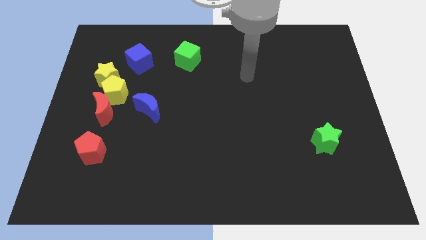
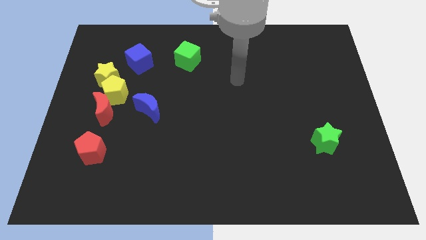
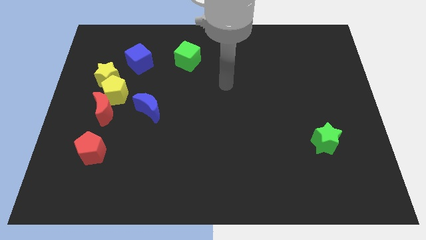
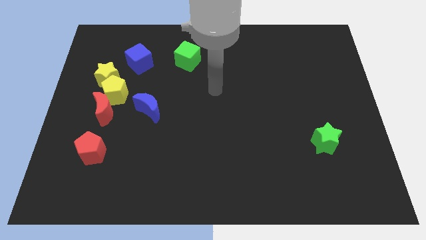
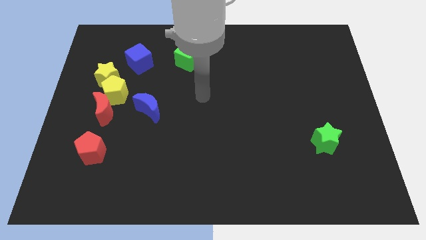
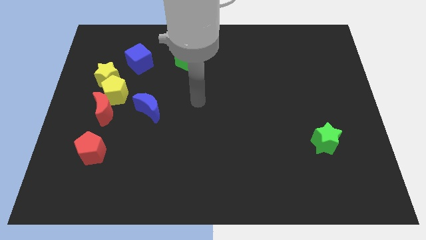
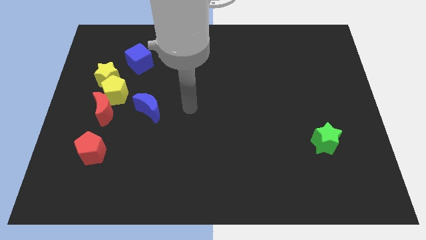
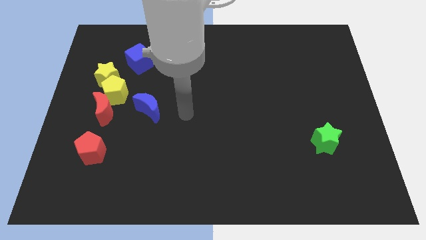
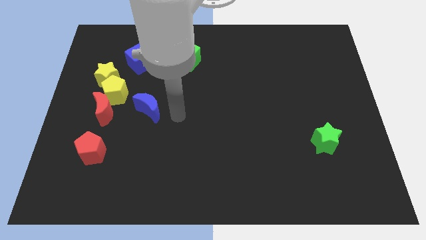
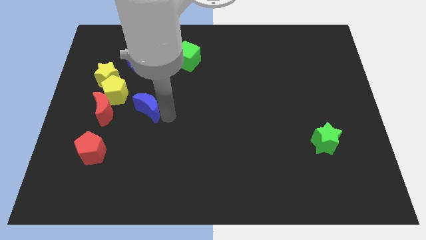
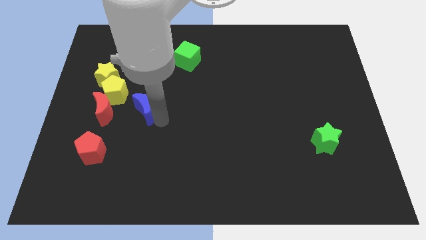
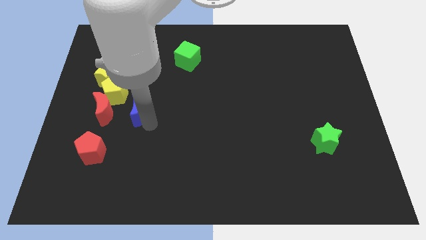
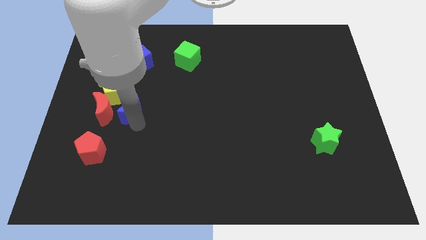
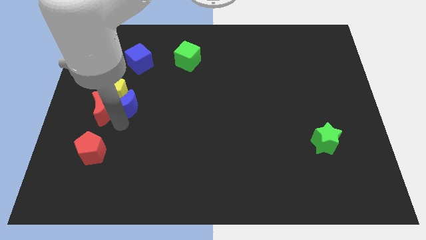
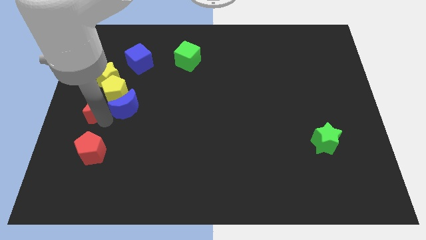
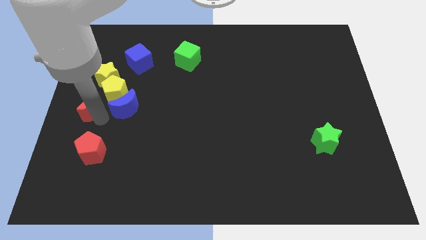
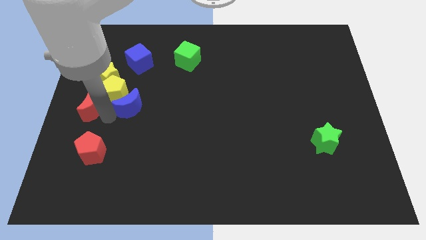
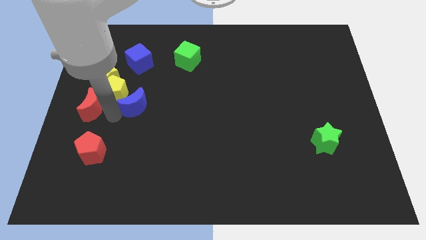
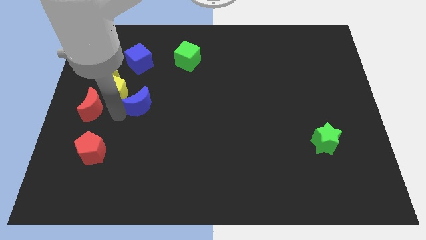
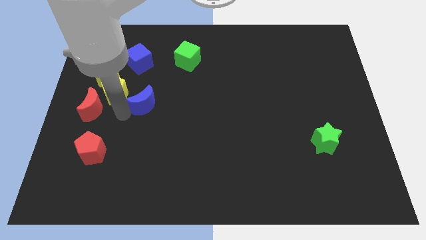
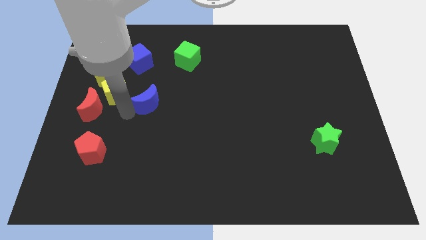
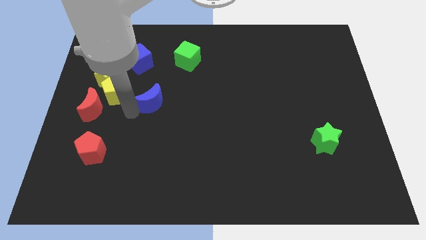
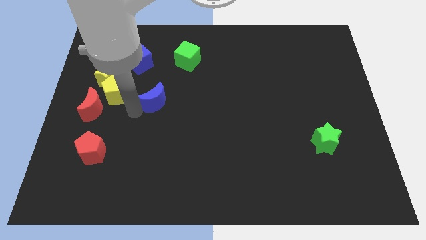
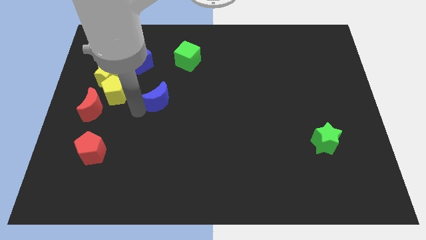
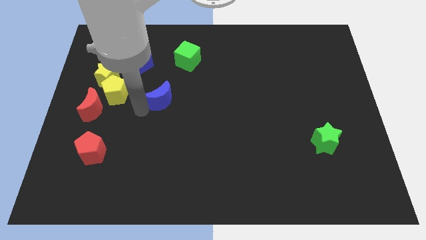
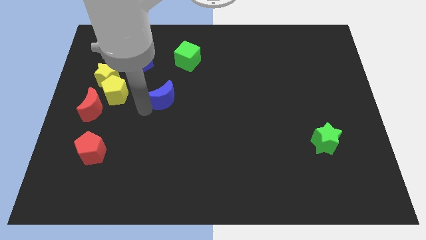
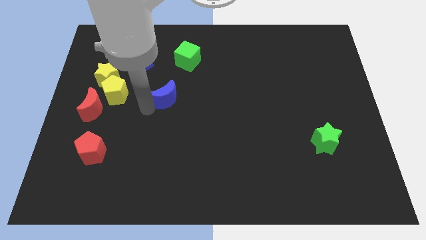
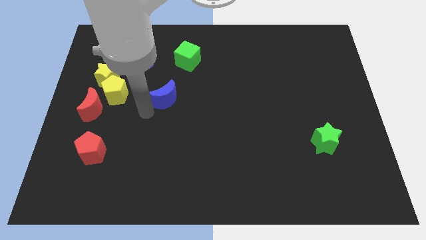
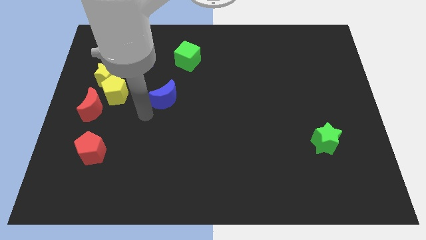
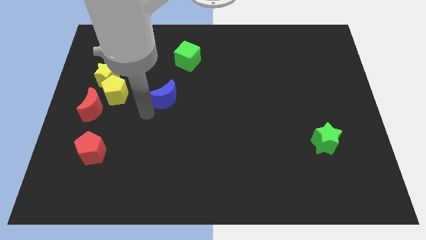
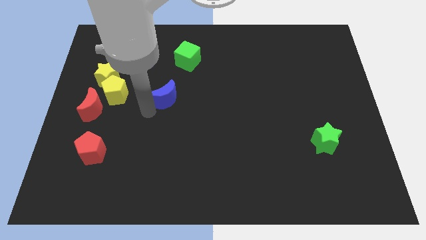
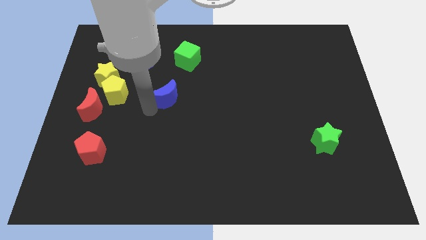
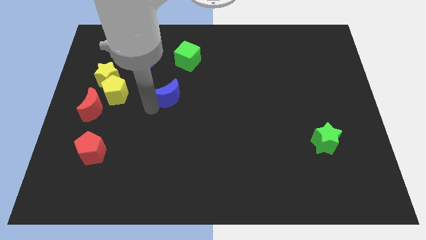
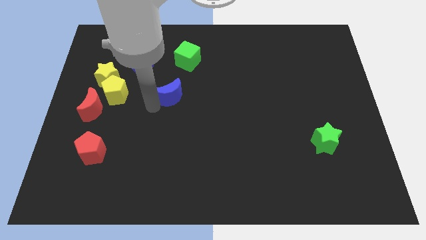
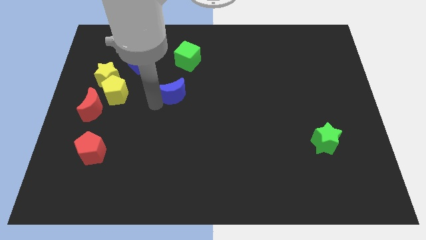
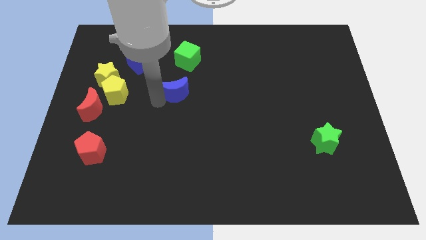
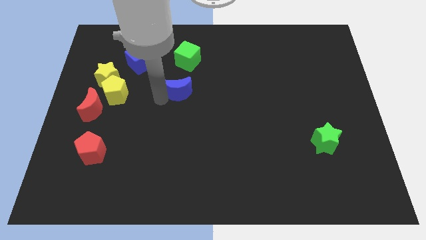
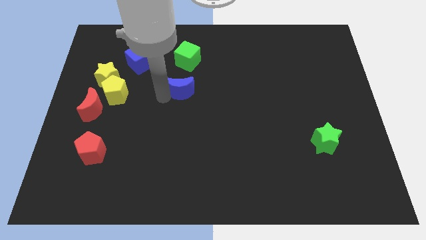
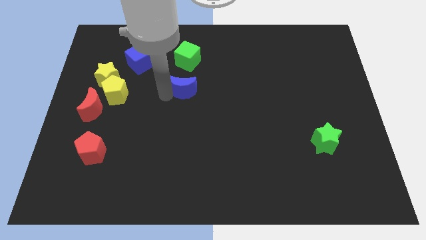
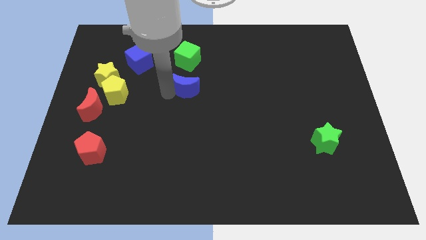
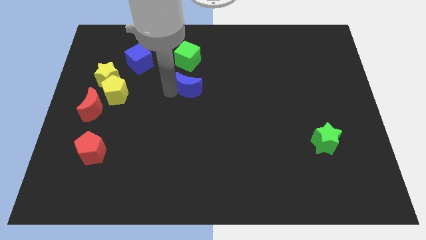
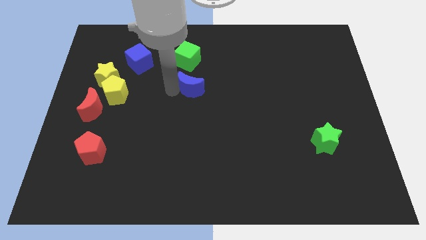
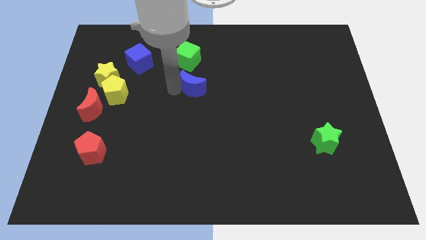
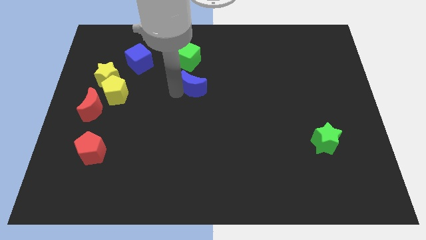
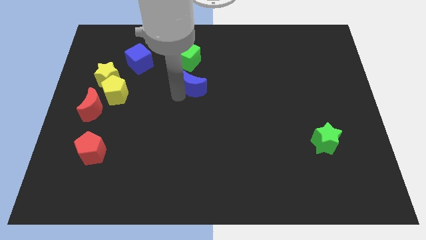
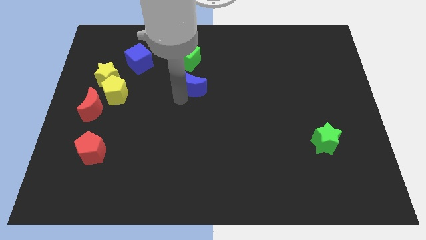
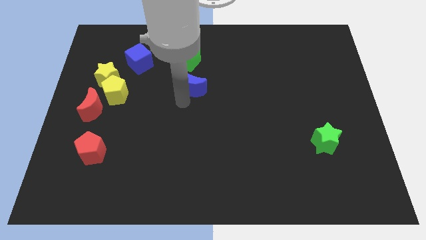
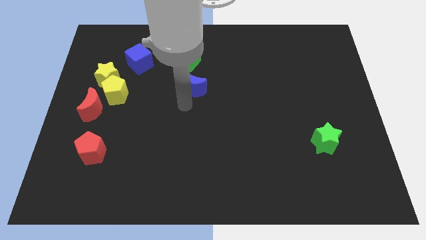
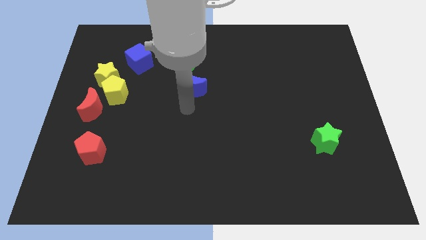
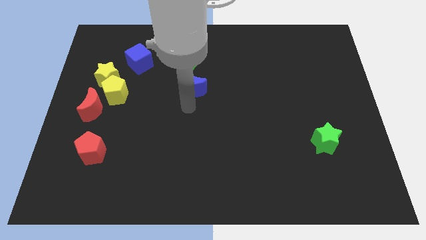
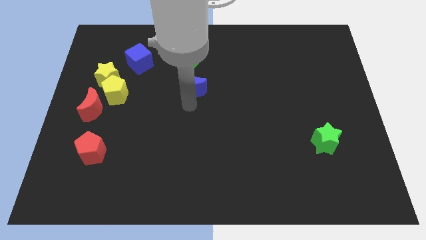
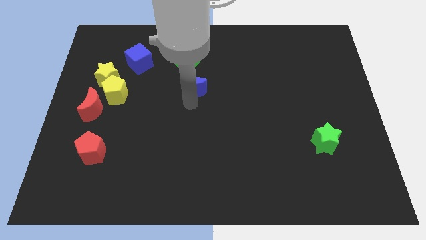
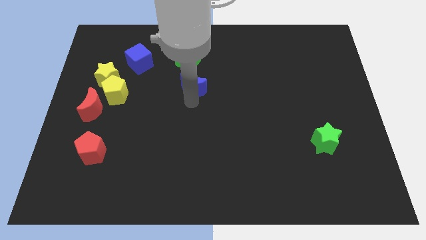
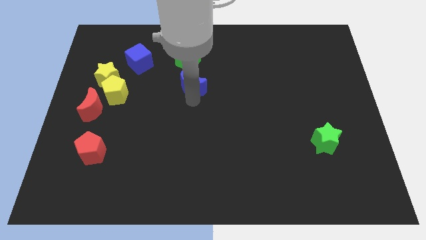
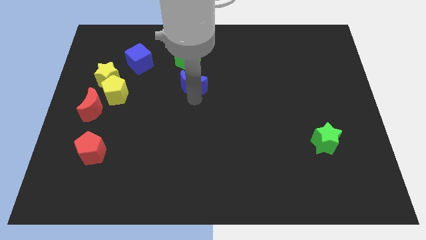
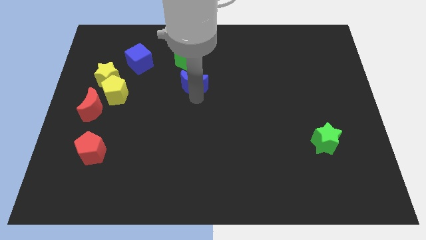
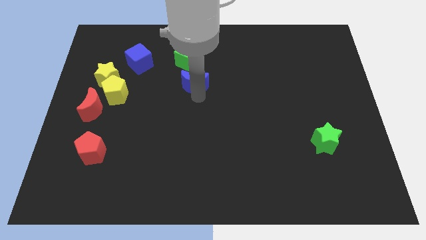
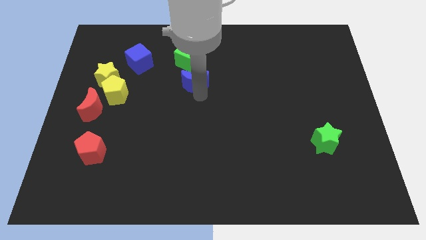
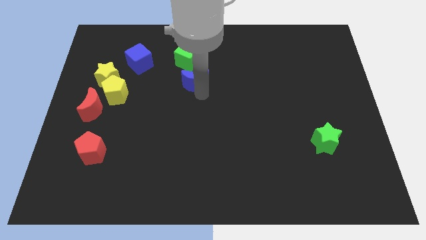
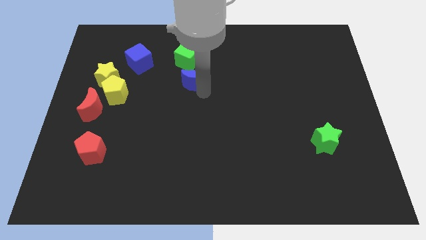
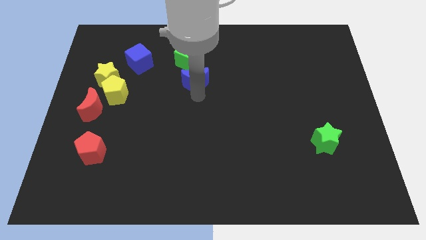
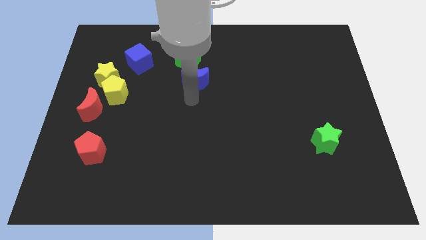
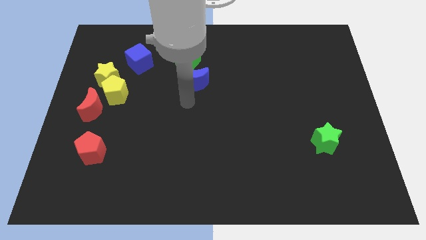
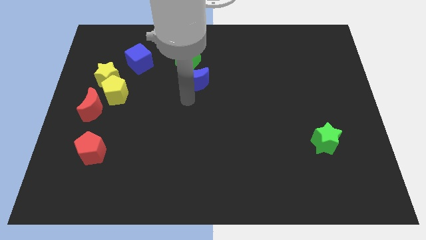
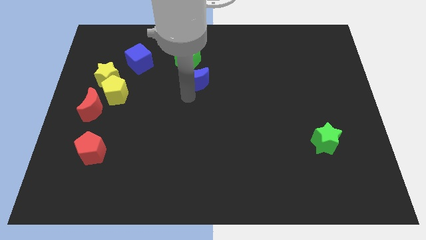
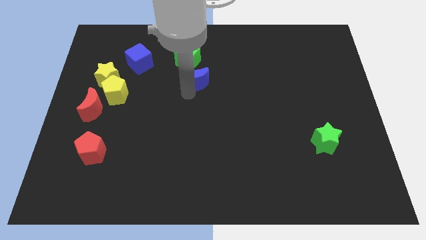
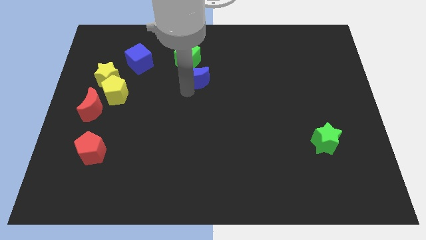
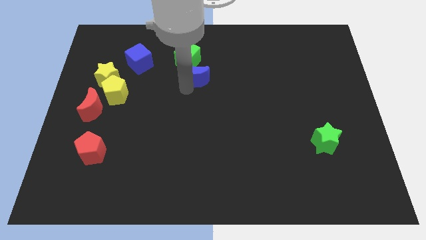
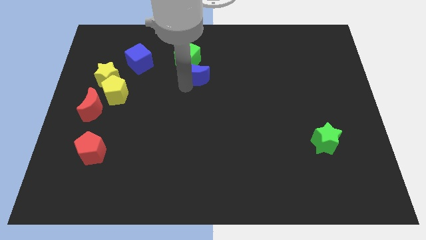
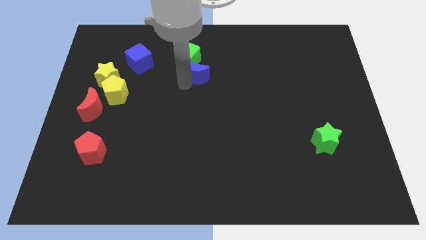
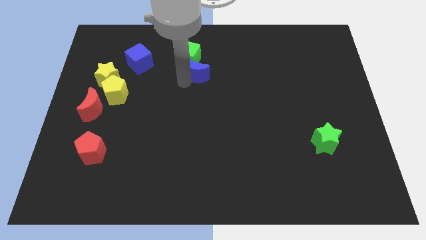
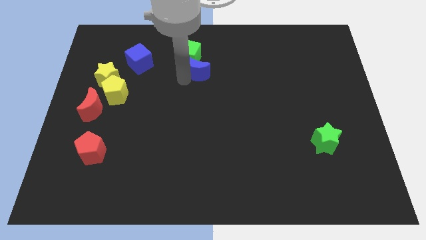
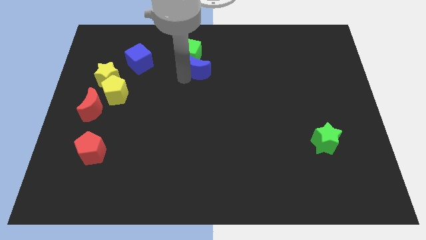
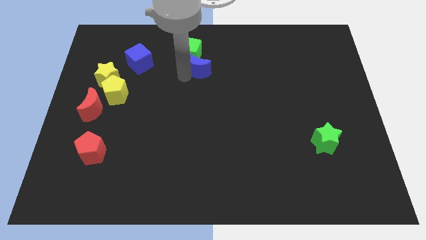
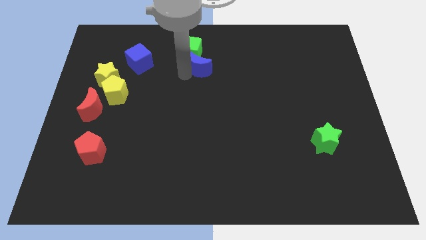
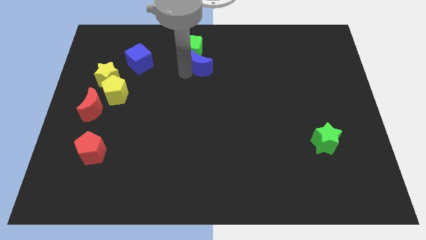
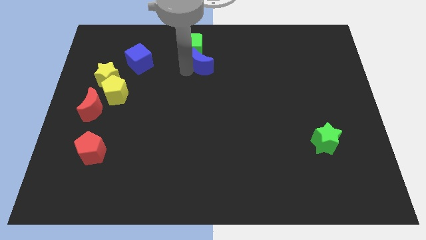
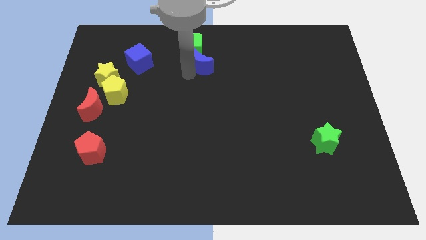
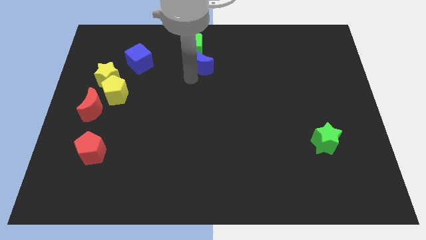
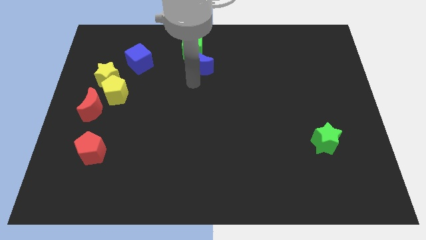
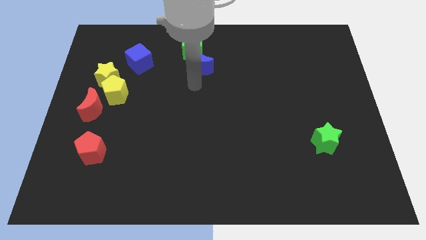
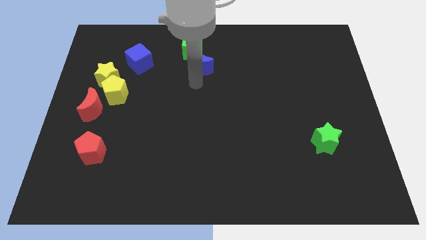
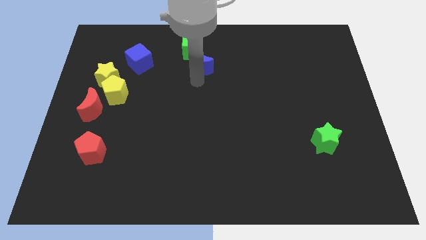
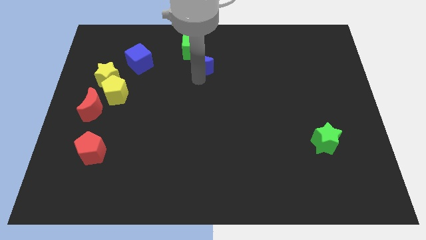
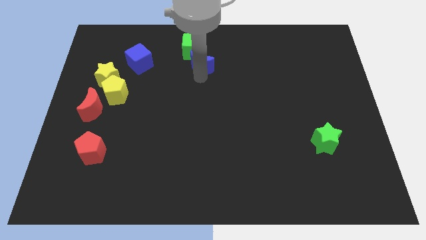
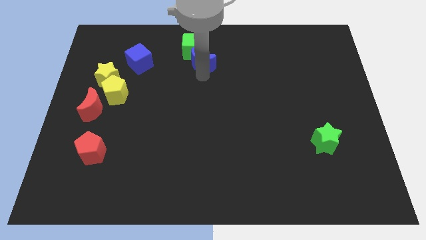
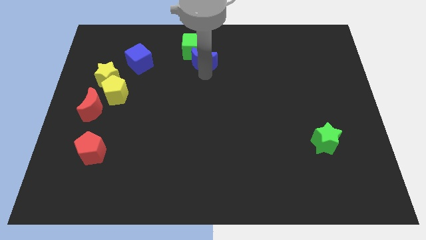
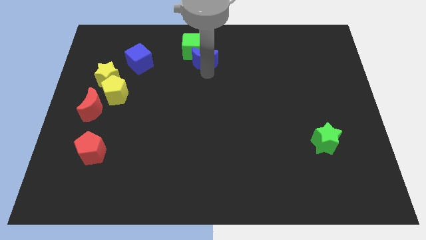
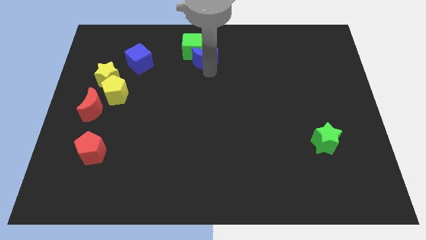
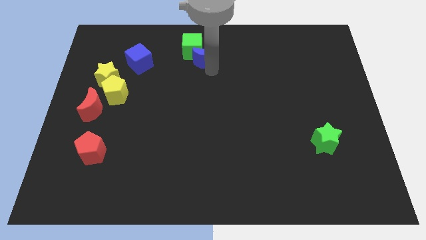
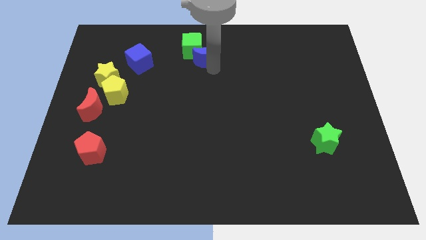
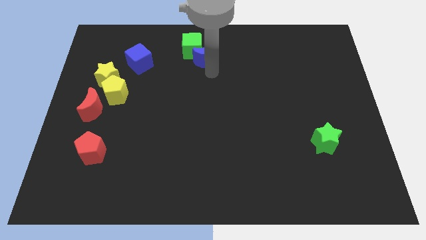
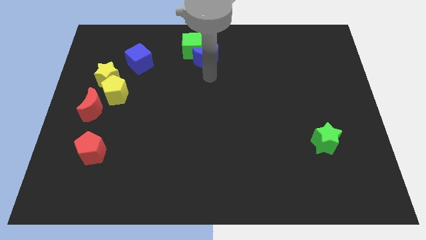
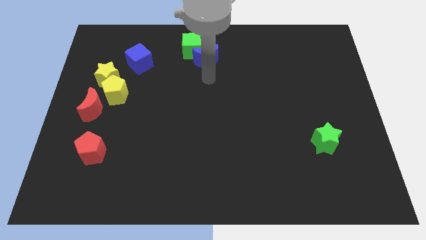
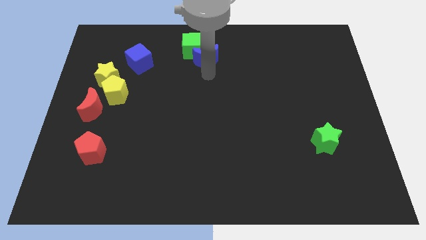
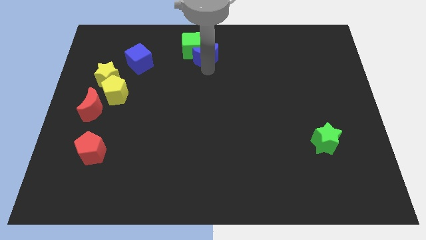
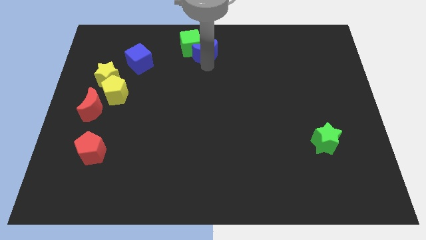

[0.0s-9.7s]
push the blue moon to the top
